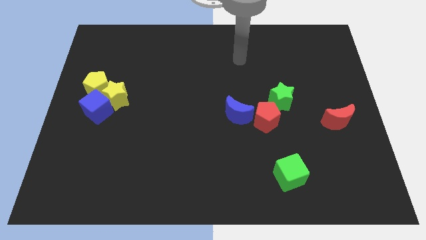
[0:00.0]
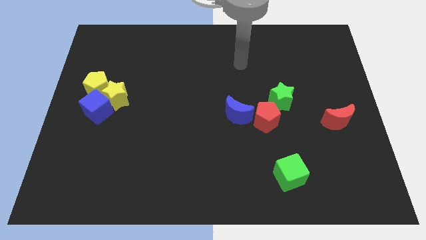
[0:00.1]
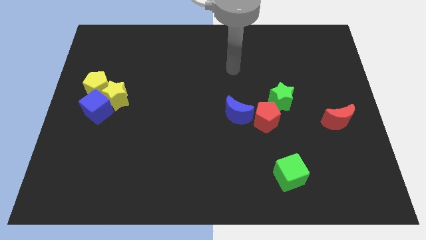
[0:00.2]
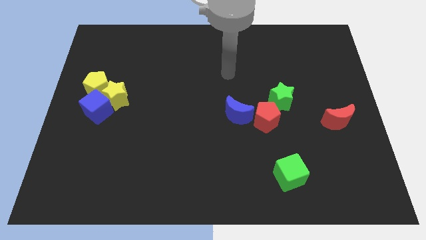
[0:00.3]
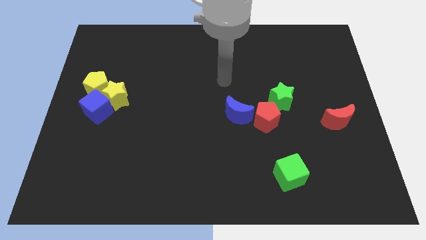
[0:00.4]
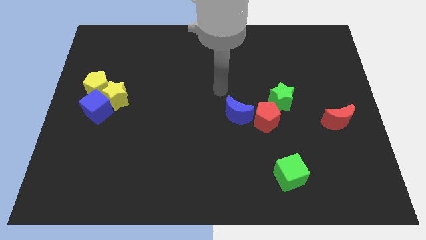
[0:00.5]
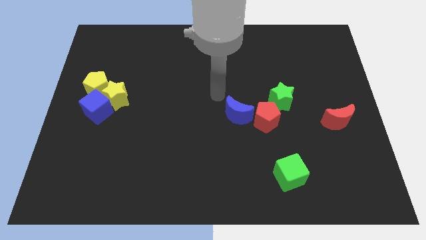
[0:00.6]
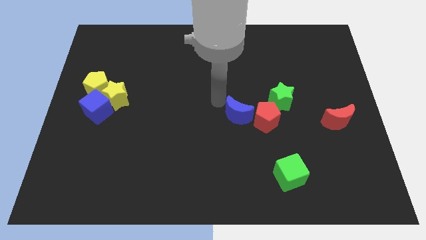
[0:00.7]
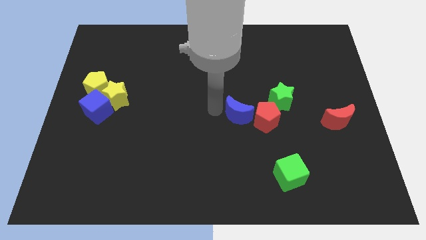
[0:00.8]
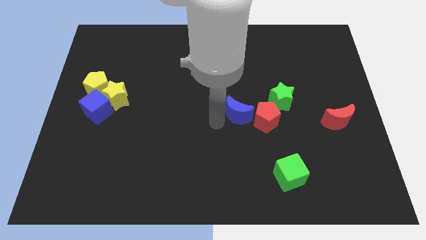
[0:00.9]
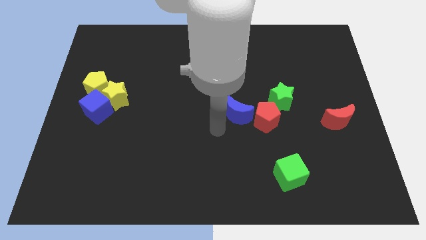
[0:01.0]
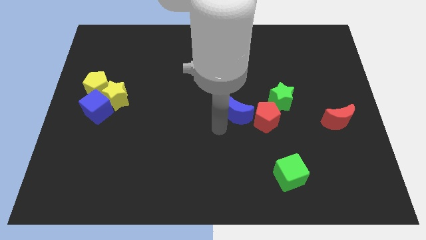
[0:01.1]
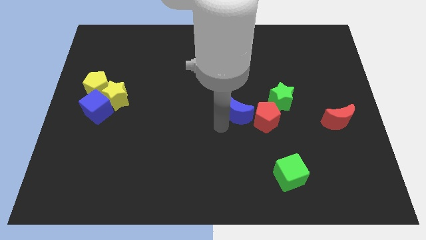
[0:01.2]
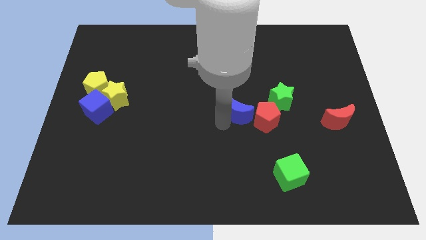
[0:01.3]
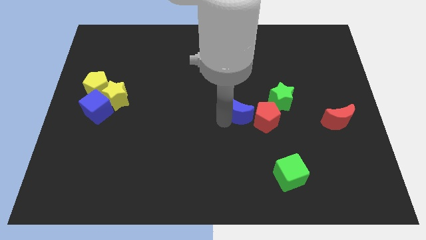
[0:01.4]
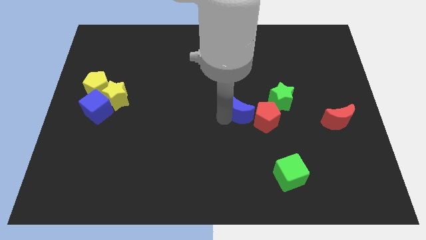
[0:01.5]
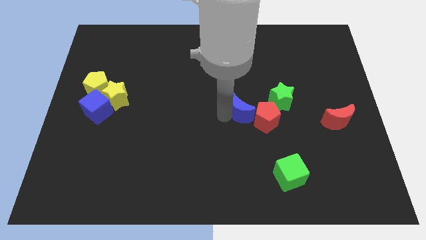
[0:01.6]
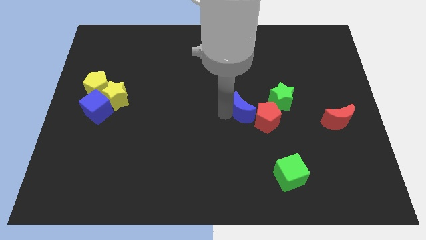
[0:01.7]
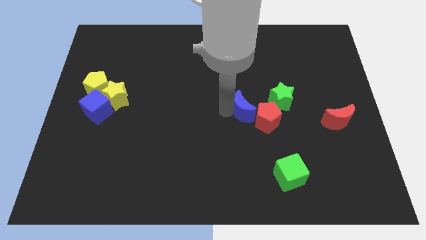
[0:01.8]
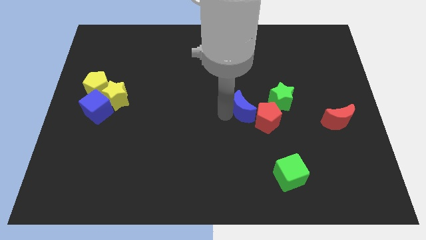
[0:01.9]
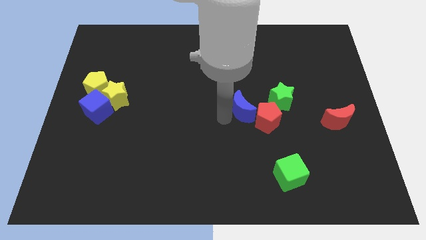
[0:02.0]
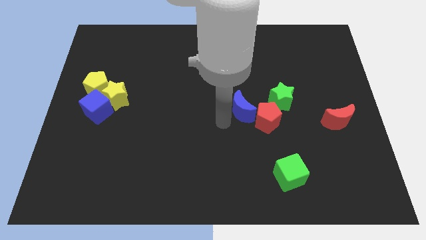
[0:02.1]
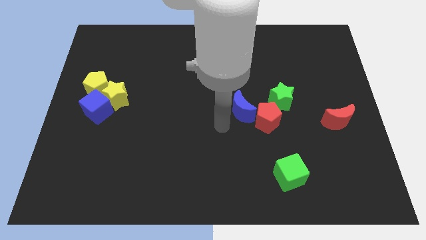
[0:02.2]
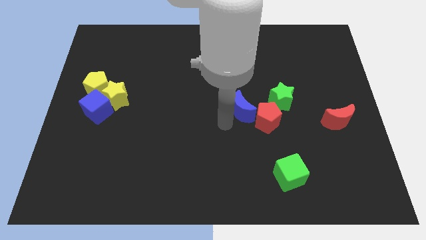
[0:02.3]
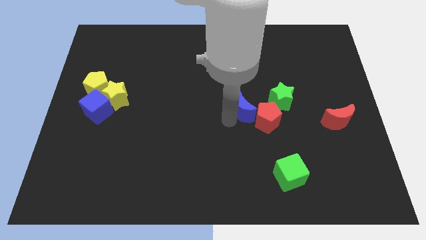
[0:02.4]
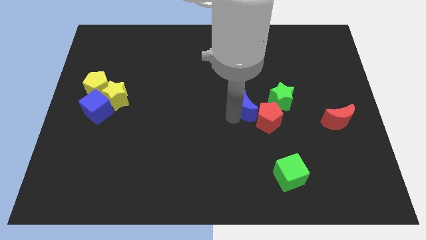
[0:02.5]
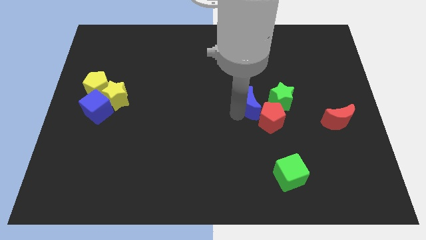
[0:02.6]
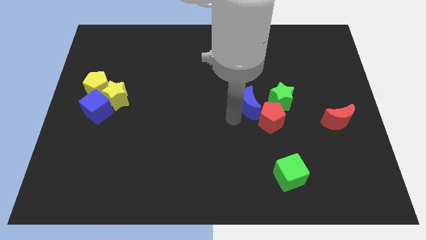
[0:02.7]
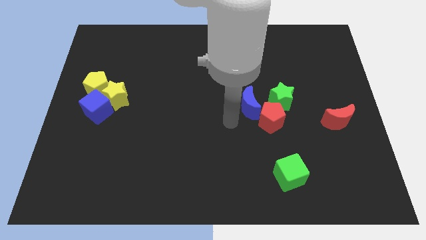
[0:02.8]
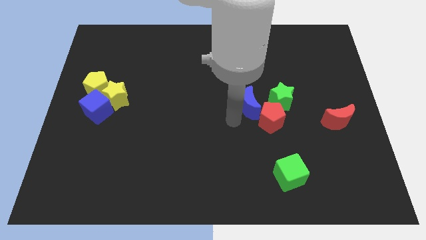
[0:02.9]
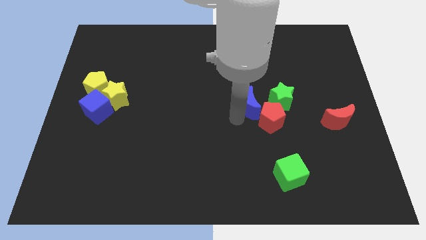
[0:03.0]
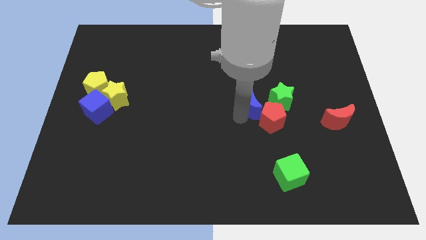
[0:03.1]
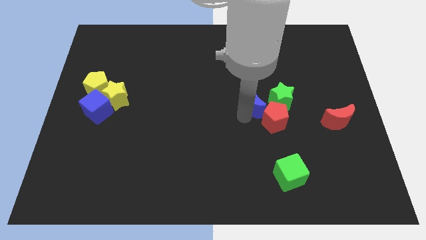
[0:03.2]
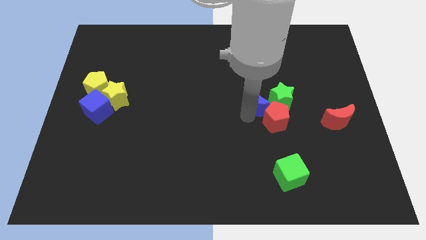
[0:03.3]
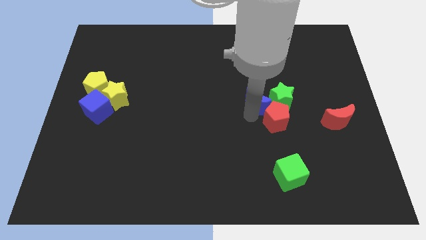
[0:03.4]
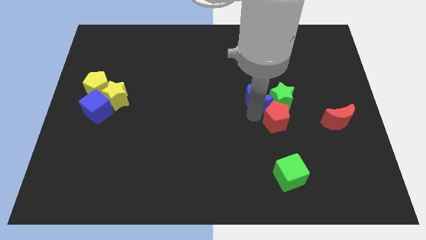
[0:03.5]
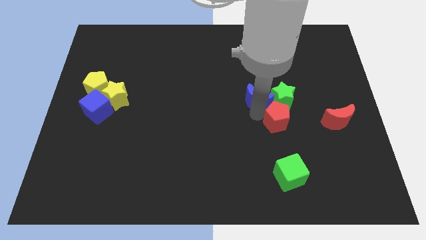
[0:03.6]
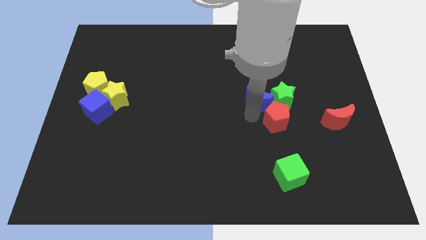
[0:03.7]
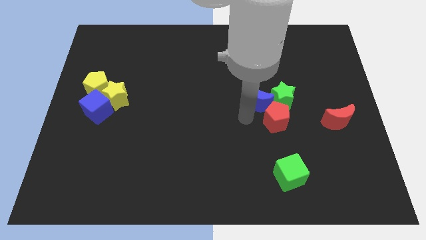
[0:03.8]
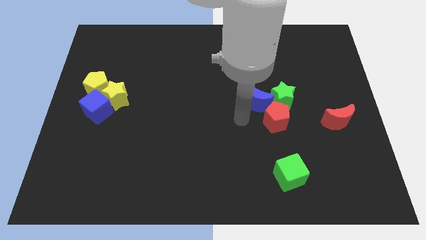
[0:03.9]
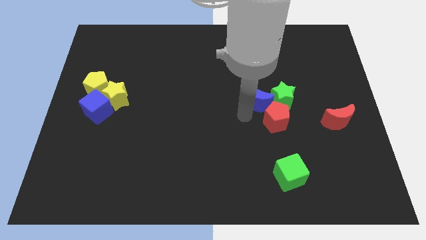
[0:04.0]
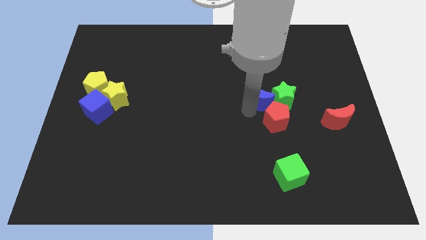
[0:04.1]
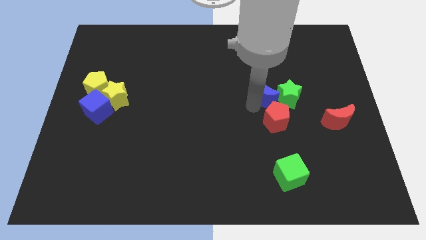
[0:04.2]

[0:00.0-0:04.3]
slide the blue moon slightly upwards and to the right

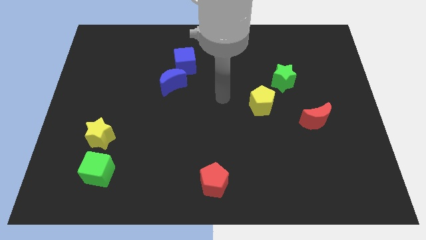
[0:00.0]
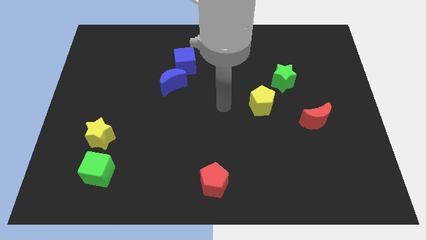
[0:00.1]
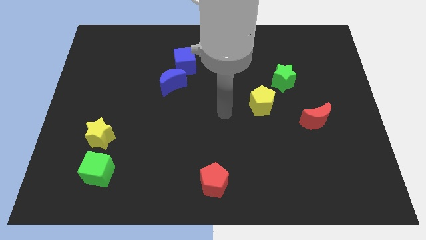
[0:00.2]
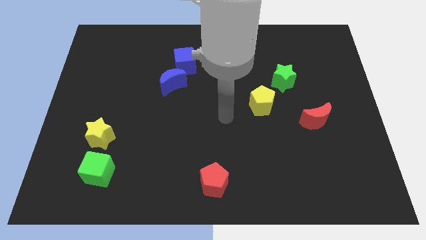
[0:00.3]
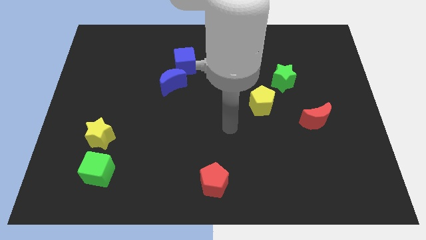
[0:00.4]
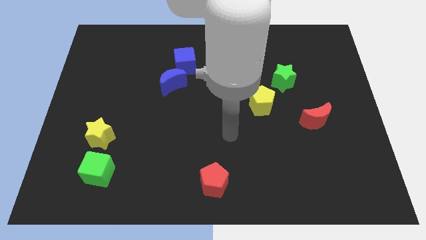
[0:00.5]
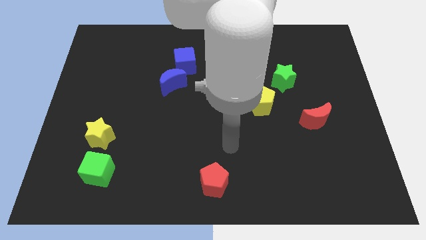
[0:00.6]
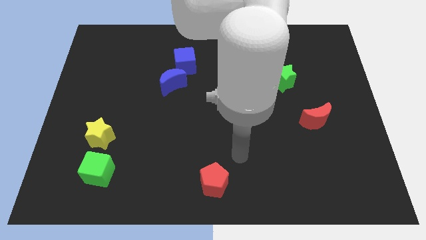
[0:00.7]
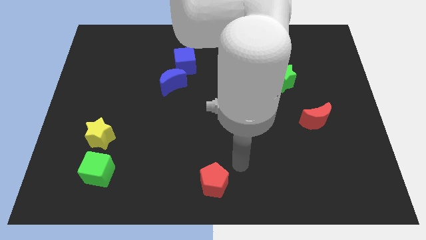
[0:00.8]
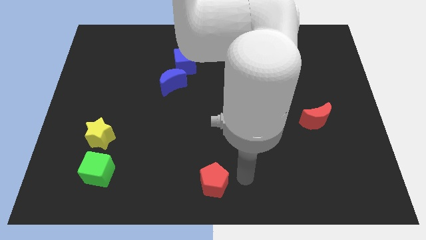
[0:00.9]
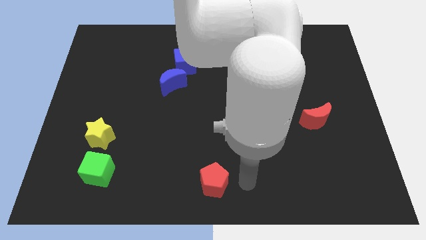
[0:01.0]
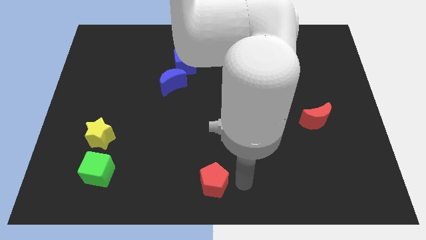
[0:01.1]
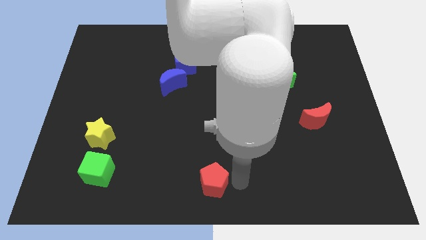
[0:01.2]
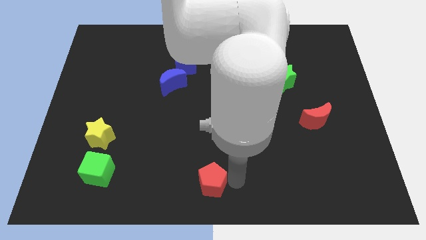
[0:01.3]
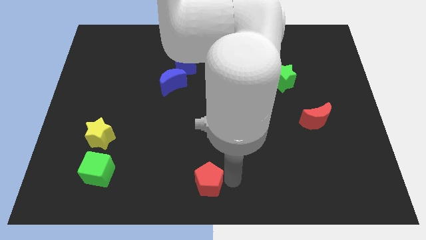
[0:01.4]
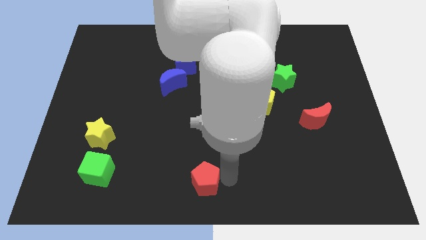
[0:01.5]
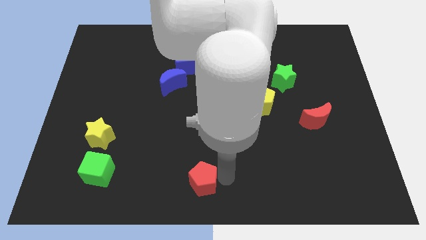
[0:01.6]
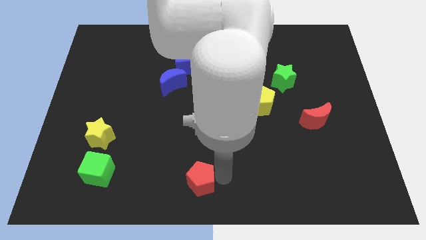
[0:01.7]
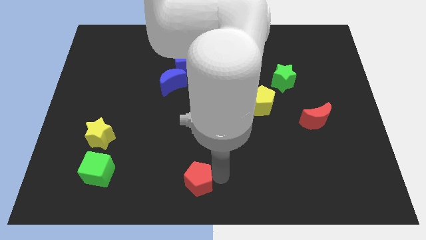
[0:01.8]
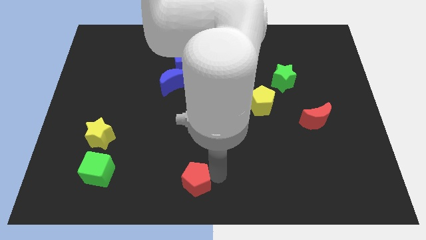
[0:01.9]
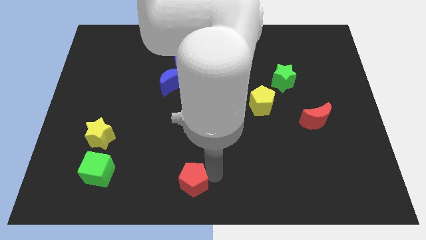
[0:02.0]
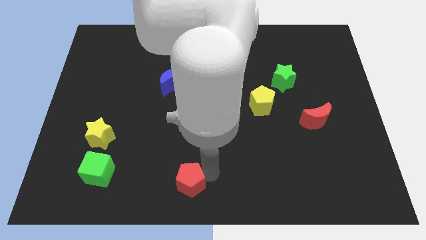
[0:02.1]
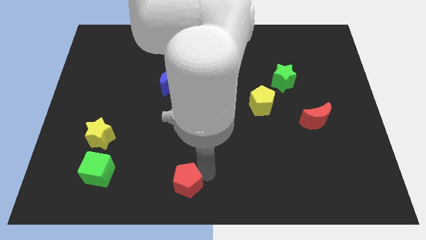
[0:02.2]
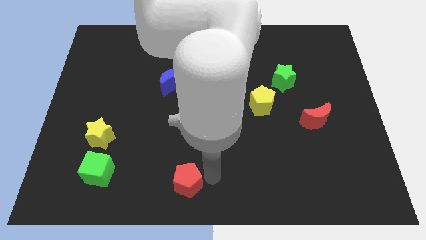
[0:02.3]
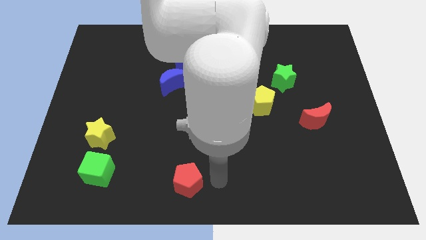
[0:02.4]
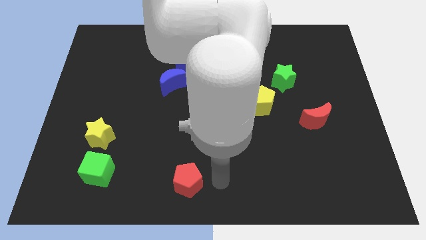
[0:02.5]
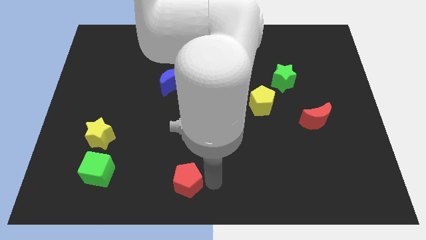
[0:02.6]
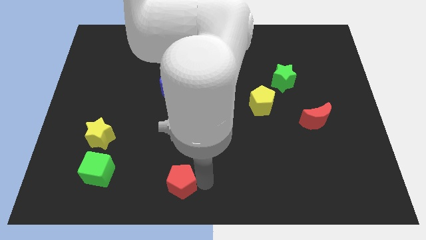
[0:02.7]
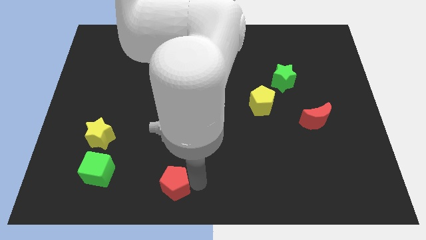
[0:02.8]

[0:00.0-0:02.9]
slightly move the red pentagon left

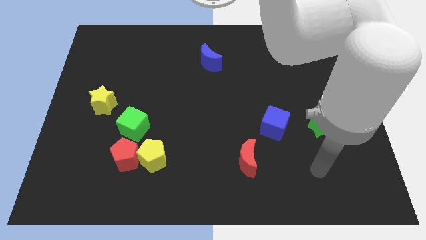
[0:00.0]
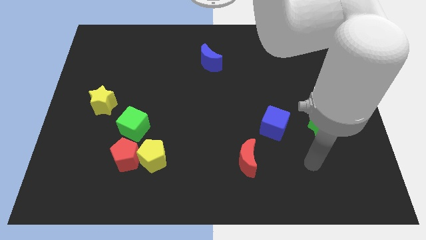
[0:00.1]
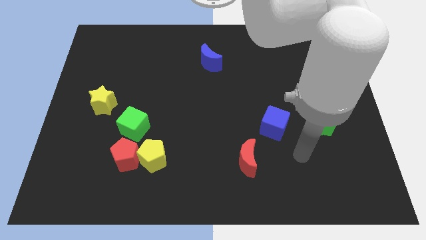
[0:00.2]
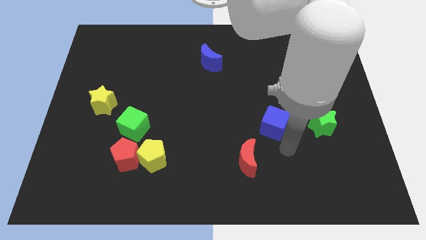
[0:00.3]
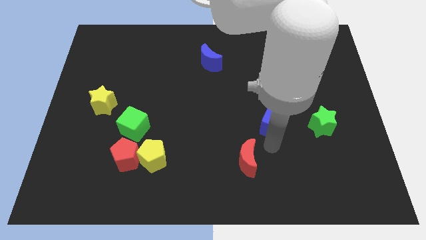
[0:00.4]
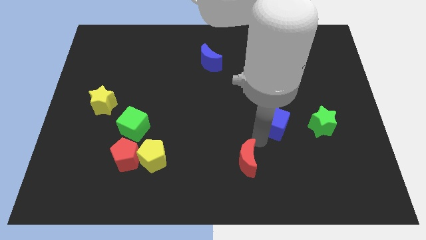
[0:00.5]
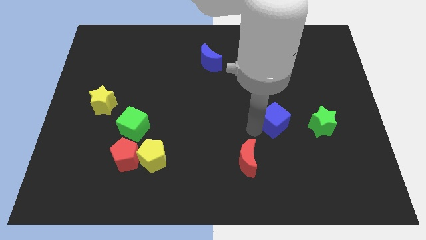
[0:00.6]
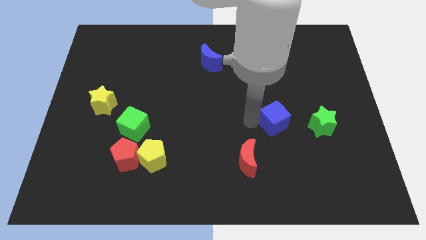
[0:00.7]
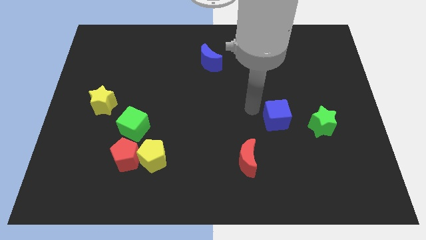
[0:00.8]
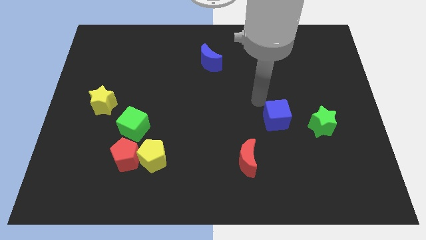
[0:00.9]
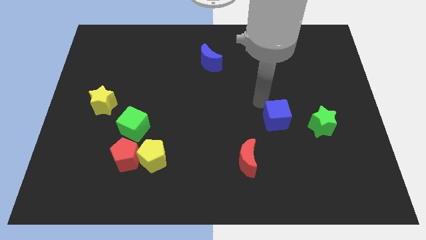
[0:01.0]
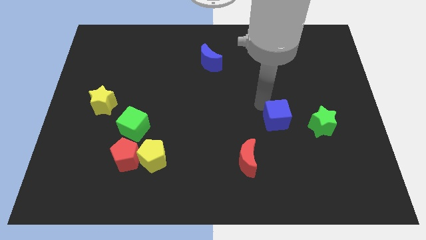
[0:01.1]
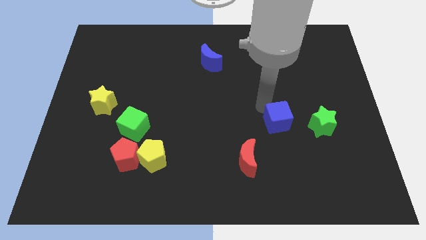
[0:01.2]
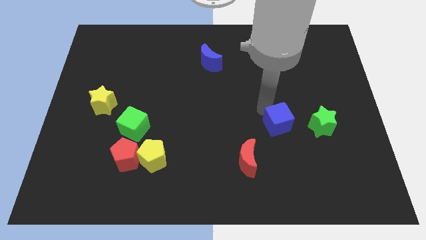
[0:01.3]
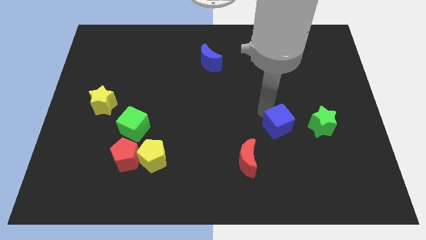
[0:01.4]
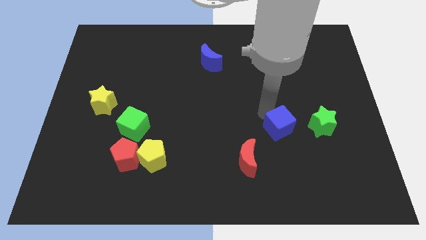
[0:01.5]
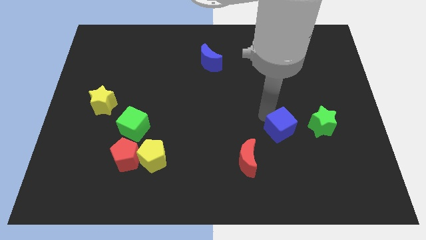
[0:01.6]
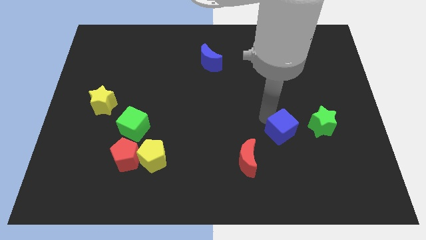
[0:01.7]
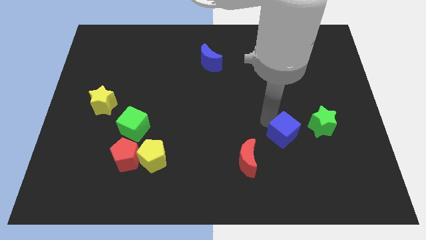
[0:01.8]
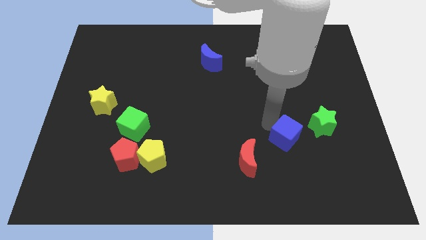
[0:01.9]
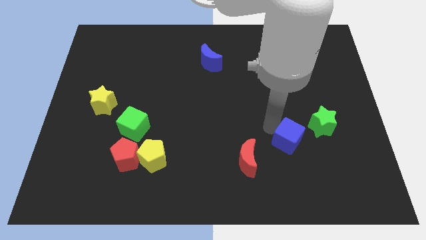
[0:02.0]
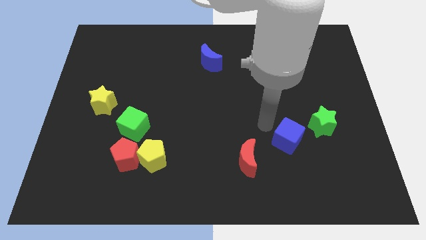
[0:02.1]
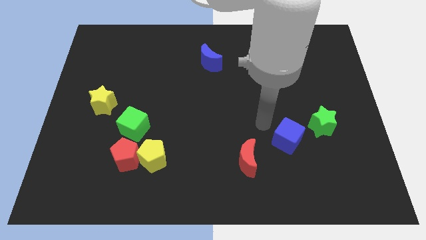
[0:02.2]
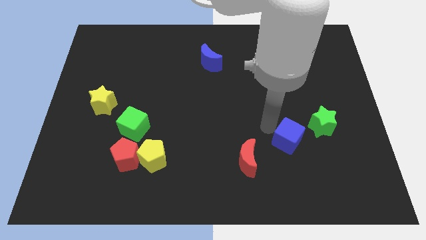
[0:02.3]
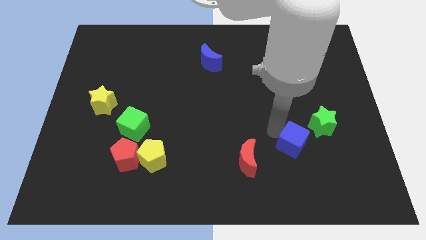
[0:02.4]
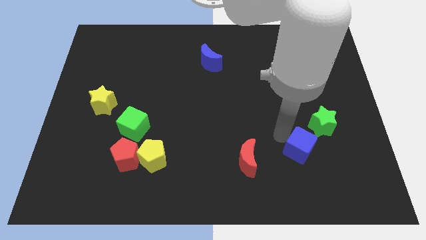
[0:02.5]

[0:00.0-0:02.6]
slide the blue cube down and then to the right a little
